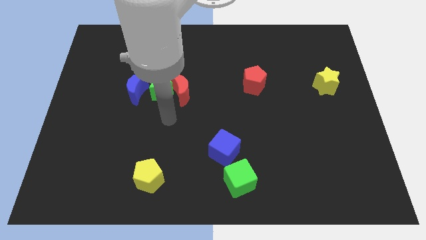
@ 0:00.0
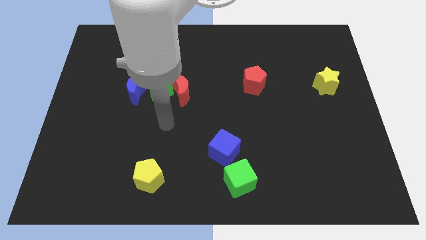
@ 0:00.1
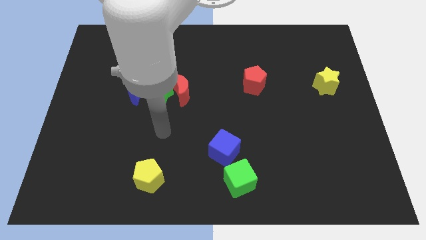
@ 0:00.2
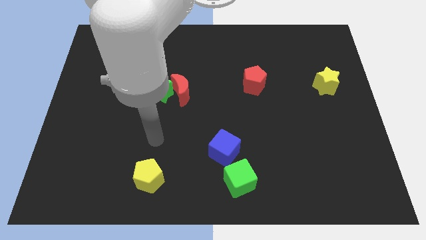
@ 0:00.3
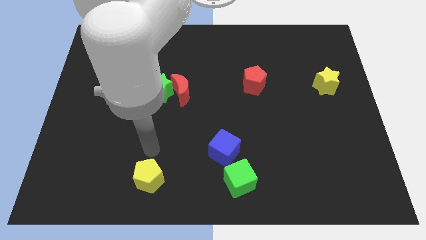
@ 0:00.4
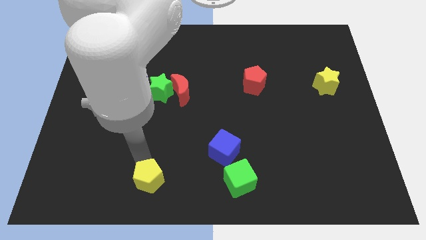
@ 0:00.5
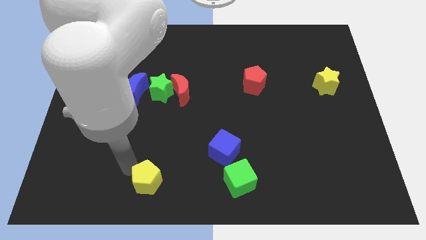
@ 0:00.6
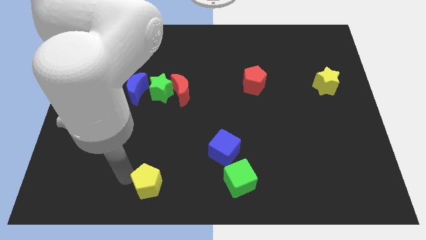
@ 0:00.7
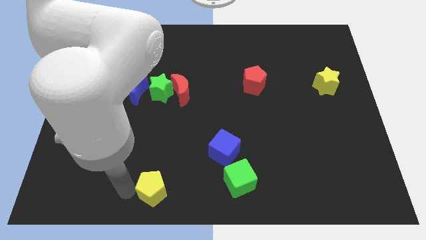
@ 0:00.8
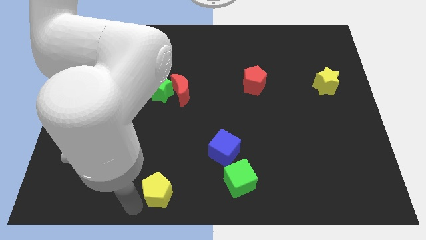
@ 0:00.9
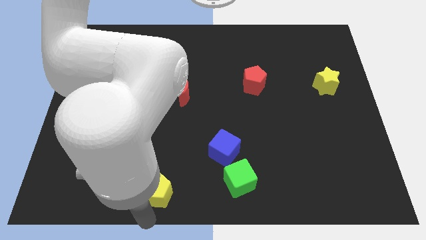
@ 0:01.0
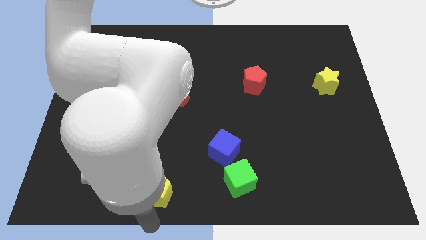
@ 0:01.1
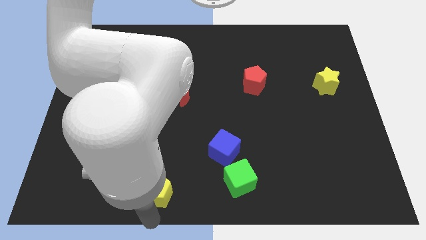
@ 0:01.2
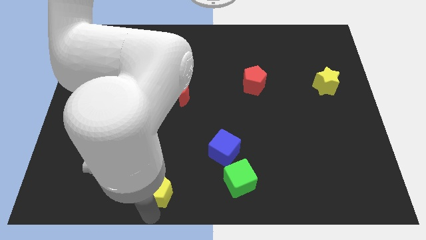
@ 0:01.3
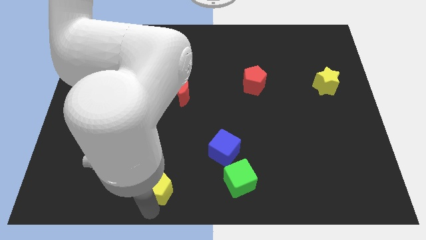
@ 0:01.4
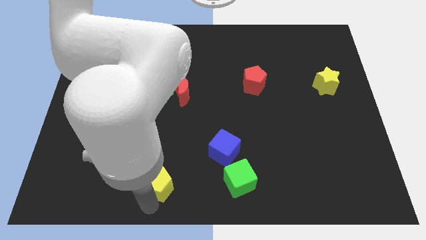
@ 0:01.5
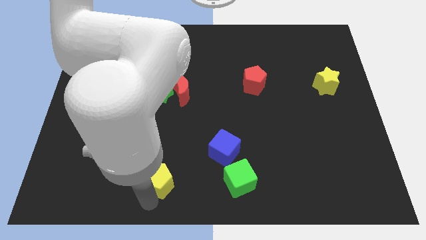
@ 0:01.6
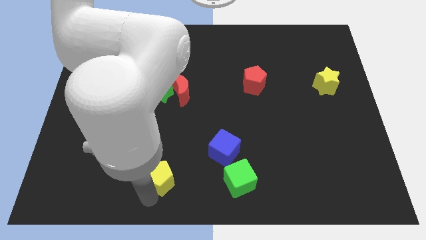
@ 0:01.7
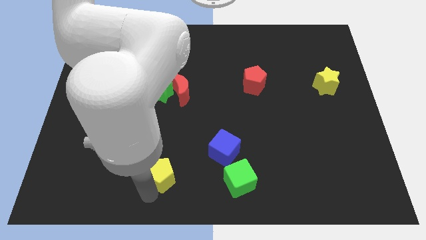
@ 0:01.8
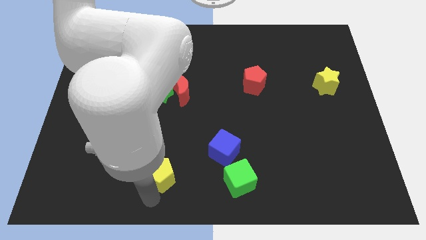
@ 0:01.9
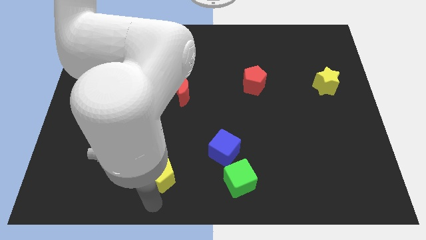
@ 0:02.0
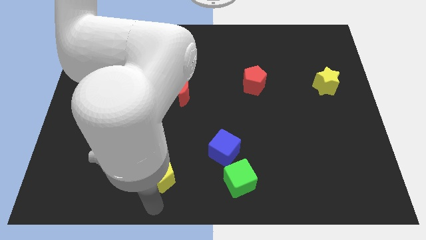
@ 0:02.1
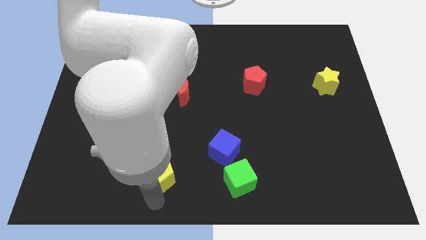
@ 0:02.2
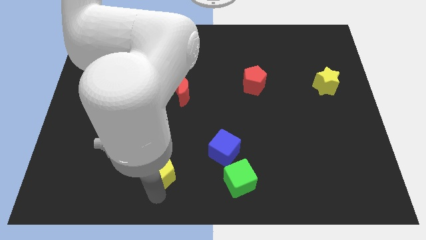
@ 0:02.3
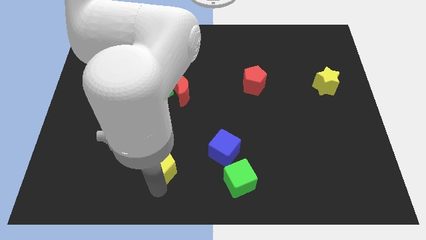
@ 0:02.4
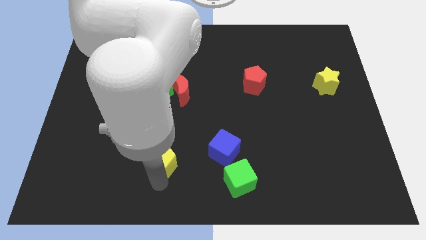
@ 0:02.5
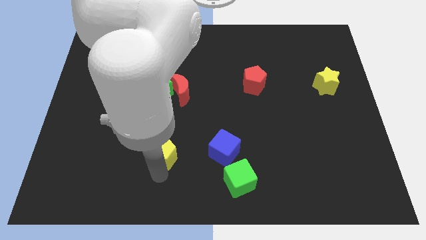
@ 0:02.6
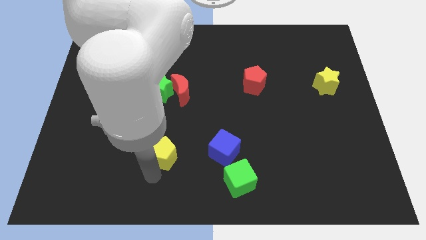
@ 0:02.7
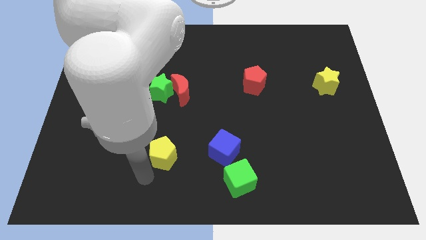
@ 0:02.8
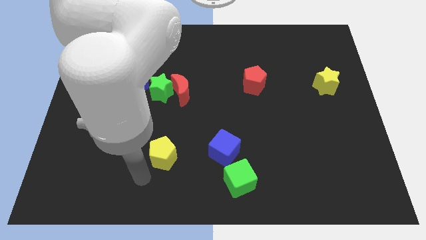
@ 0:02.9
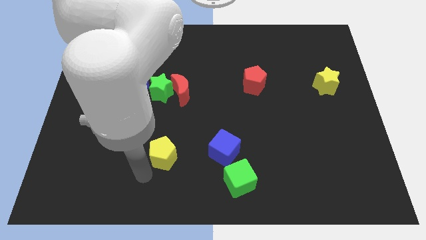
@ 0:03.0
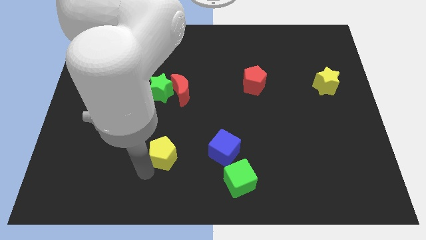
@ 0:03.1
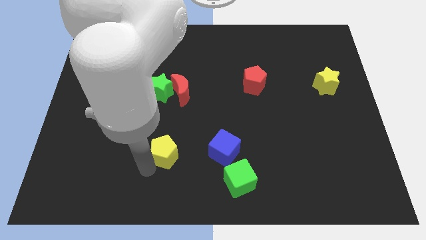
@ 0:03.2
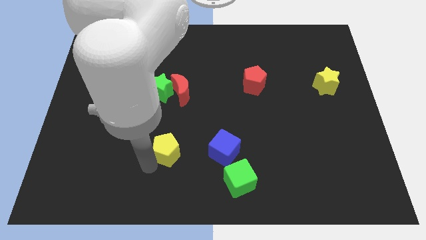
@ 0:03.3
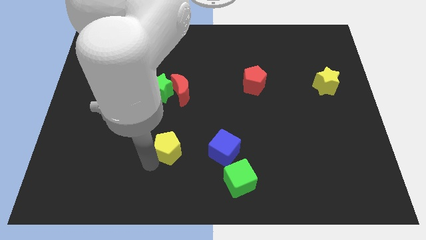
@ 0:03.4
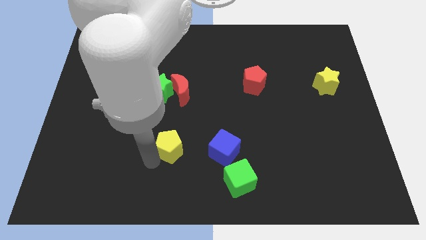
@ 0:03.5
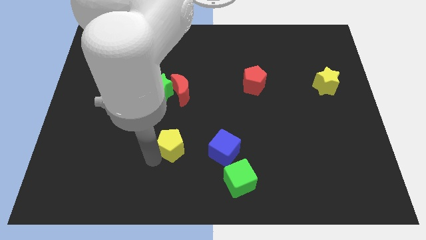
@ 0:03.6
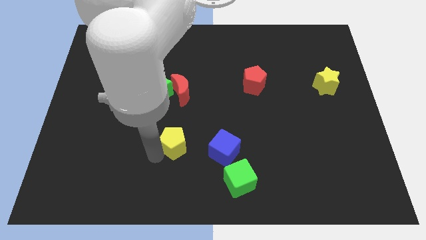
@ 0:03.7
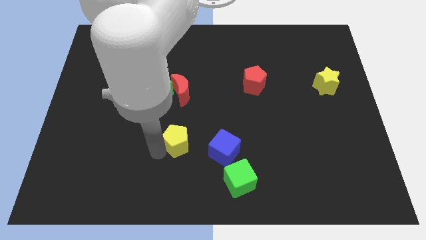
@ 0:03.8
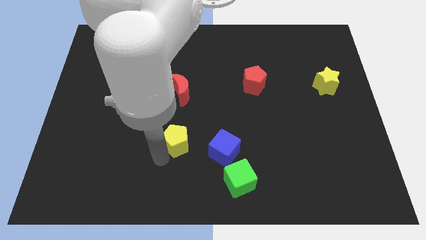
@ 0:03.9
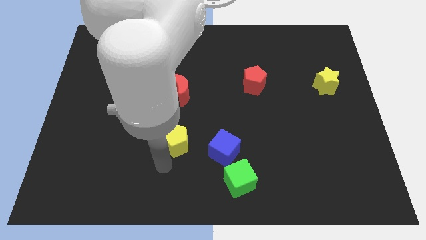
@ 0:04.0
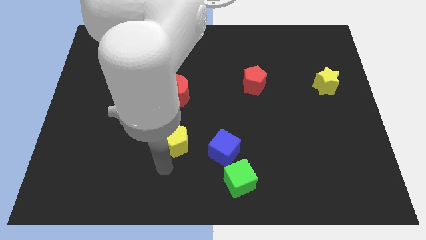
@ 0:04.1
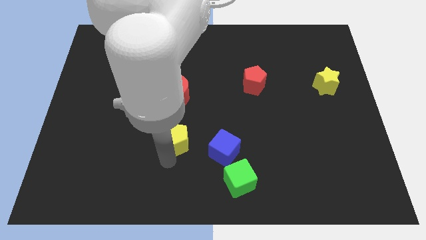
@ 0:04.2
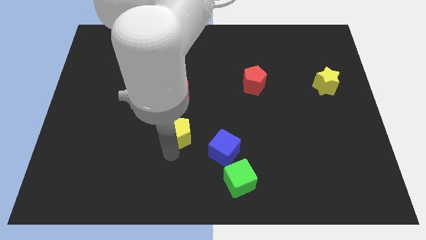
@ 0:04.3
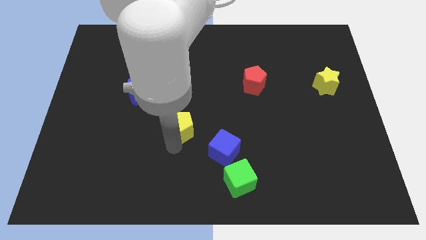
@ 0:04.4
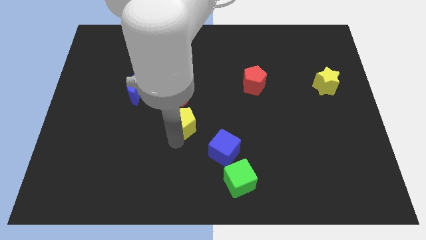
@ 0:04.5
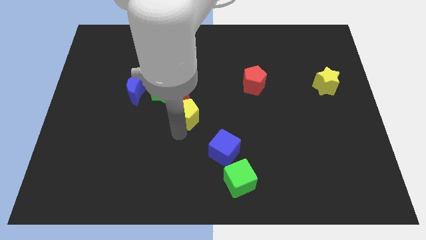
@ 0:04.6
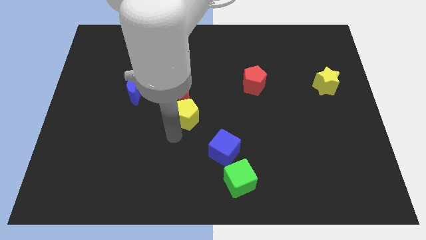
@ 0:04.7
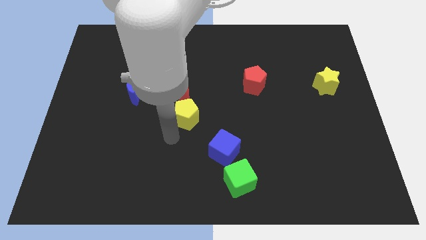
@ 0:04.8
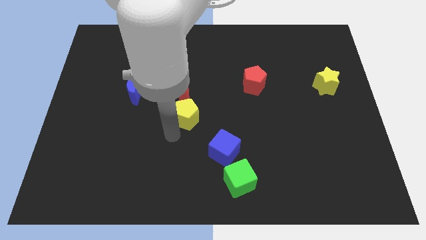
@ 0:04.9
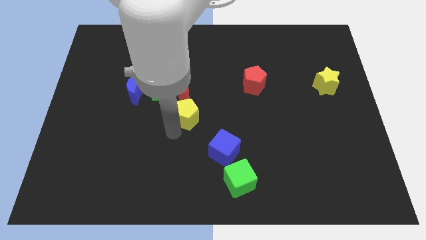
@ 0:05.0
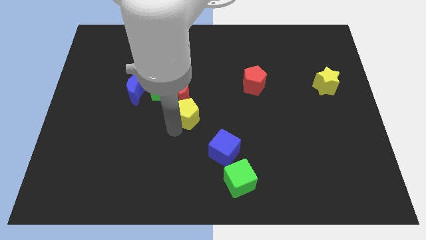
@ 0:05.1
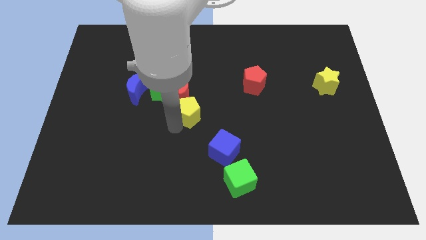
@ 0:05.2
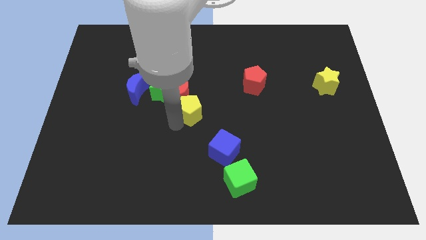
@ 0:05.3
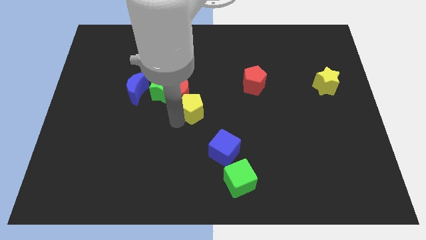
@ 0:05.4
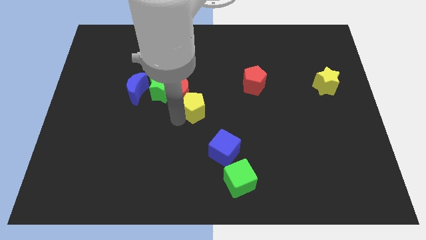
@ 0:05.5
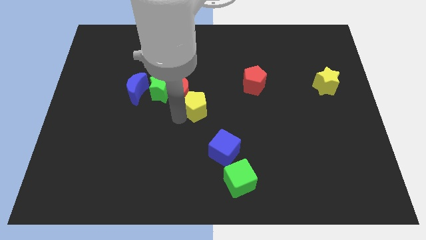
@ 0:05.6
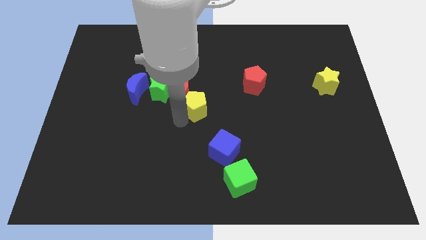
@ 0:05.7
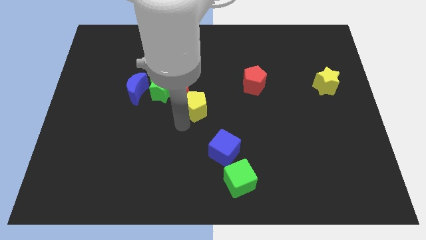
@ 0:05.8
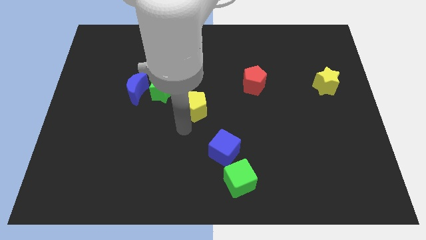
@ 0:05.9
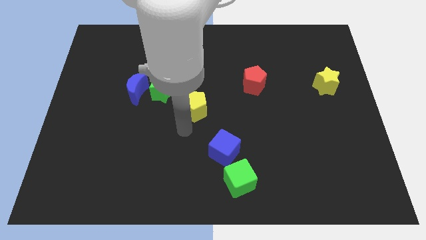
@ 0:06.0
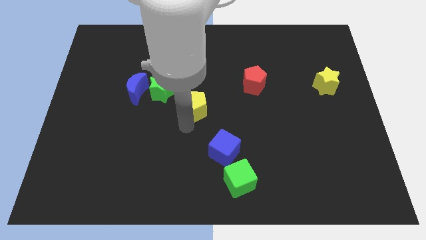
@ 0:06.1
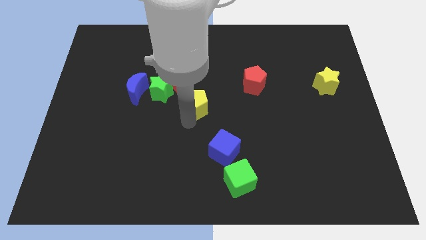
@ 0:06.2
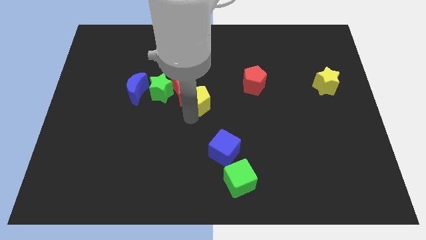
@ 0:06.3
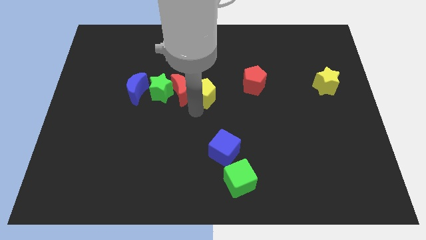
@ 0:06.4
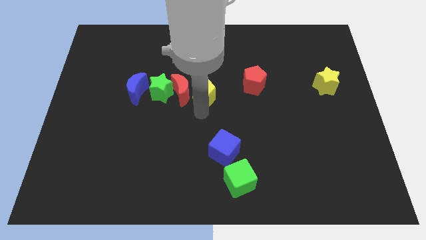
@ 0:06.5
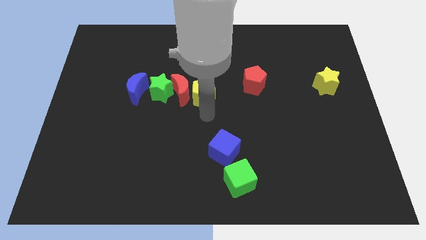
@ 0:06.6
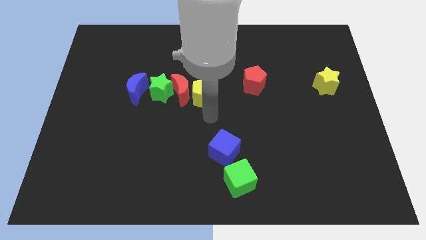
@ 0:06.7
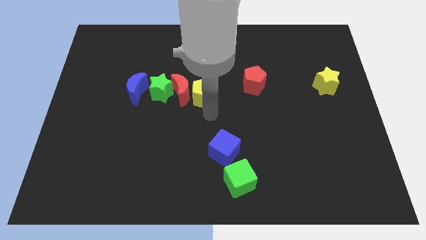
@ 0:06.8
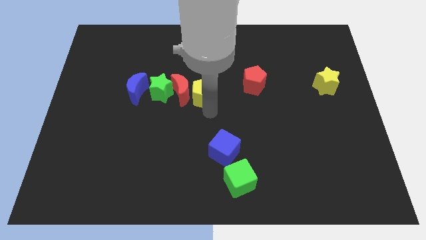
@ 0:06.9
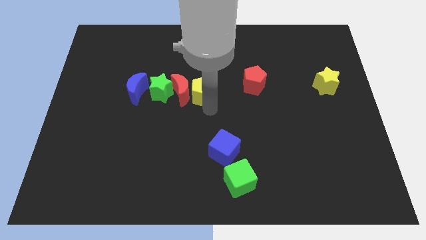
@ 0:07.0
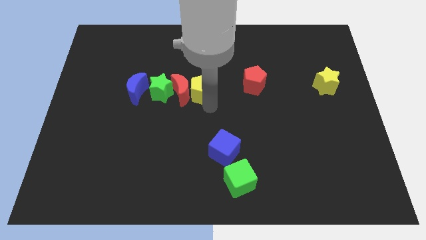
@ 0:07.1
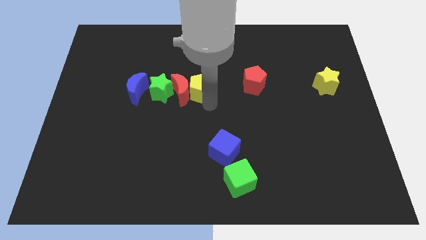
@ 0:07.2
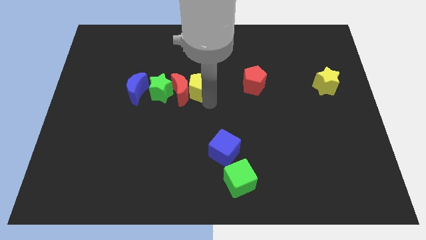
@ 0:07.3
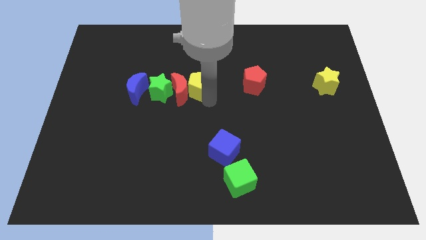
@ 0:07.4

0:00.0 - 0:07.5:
move the yellow pentagon upwards

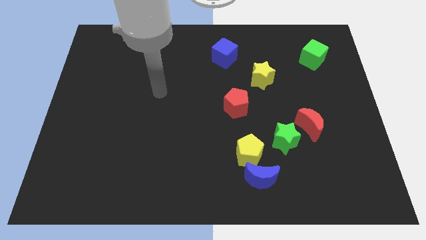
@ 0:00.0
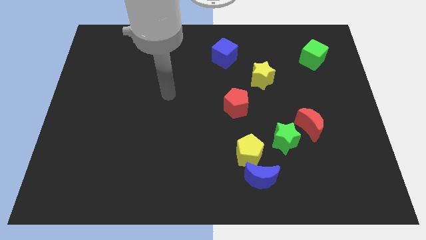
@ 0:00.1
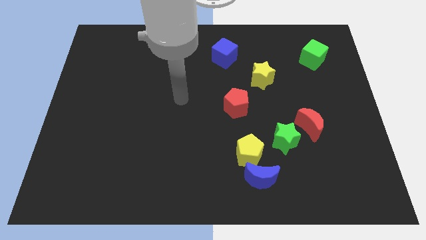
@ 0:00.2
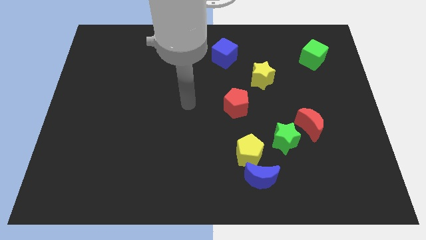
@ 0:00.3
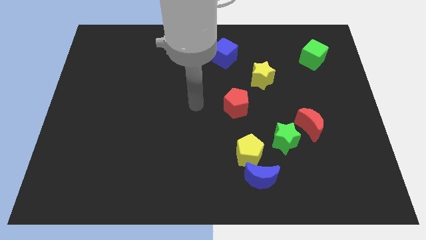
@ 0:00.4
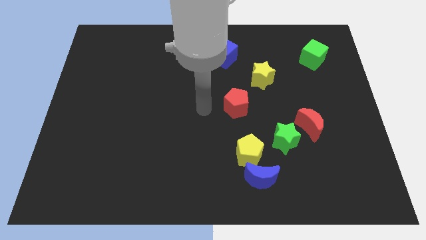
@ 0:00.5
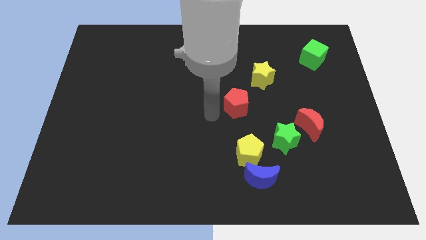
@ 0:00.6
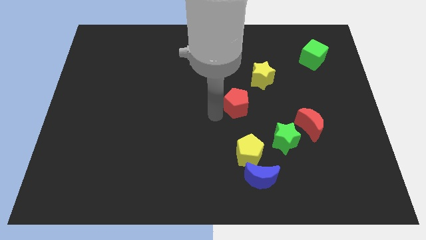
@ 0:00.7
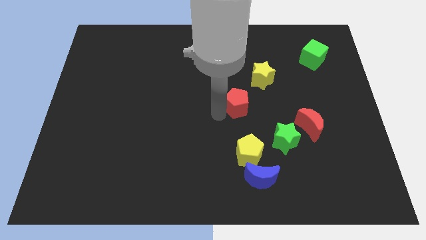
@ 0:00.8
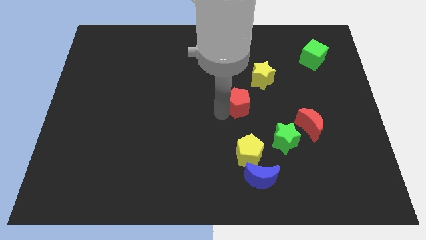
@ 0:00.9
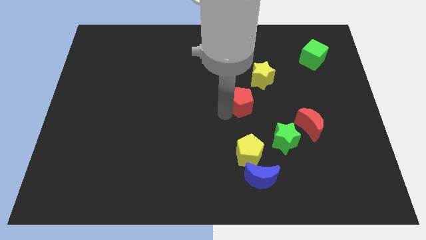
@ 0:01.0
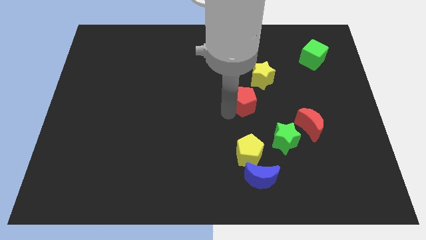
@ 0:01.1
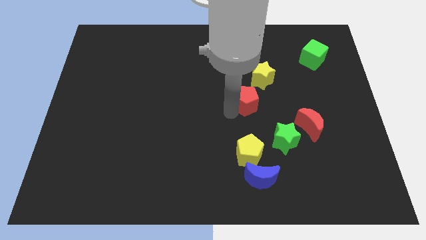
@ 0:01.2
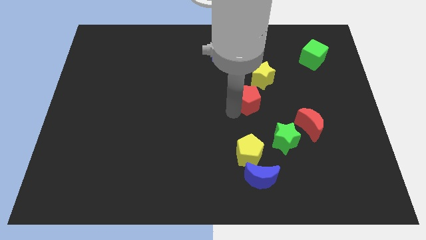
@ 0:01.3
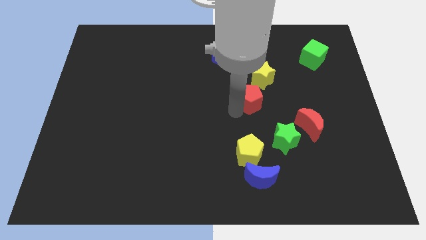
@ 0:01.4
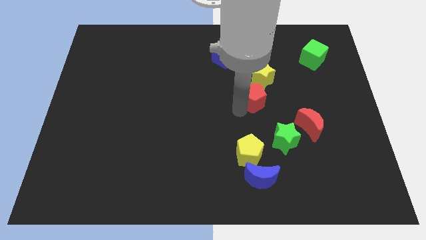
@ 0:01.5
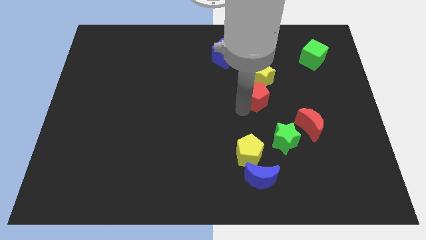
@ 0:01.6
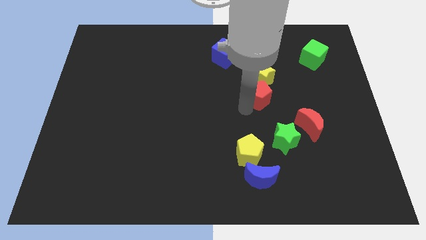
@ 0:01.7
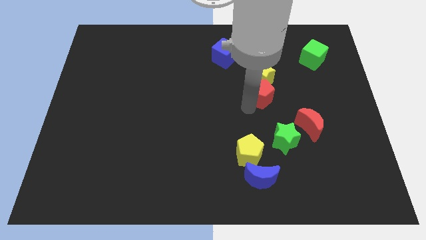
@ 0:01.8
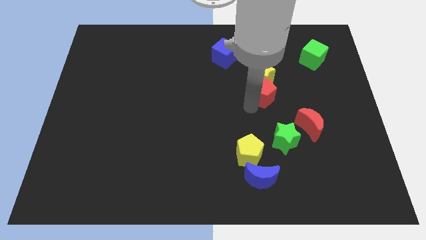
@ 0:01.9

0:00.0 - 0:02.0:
slide the red pentagon upwards and then right a little
